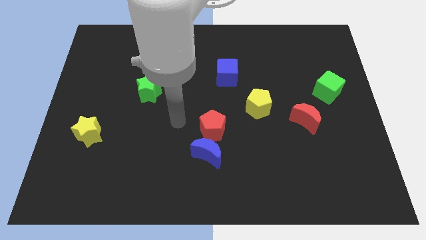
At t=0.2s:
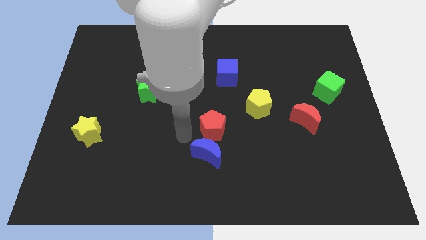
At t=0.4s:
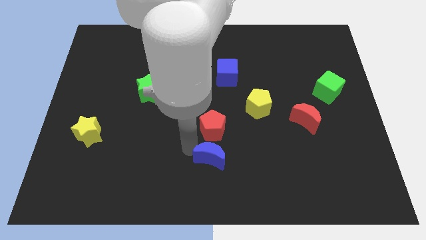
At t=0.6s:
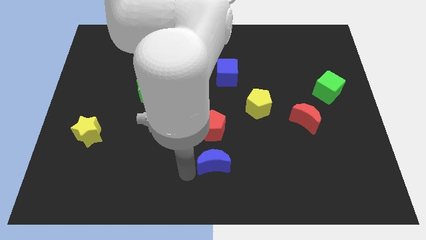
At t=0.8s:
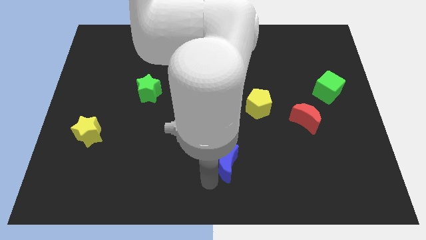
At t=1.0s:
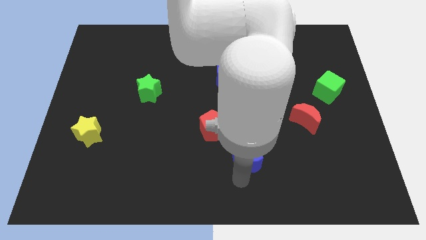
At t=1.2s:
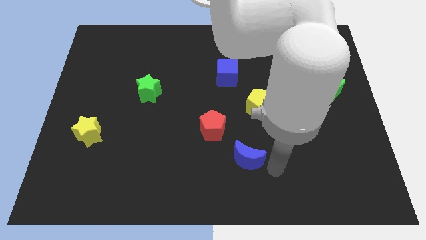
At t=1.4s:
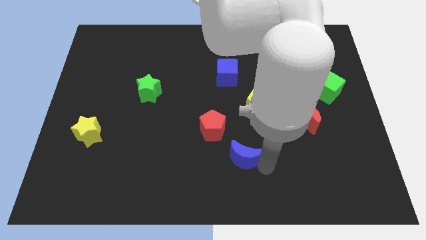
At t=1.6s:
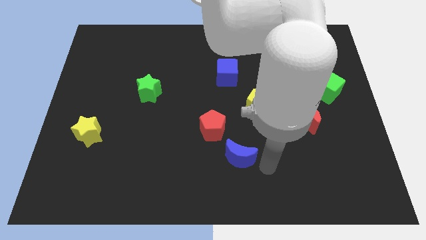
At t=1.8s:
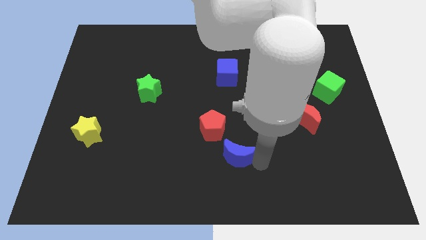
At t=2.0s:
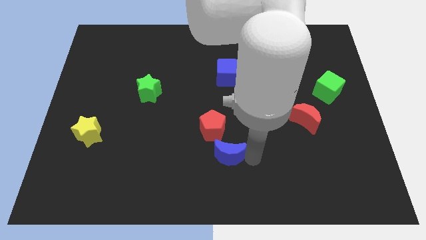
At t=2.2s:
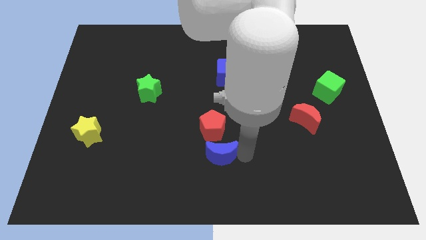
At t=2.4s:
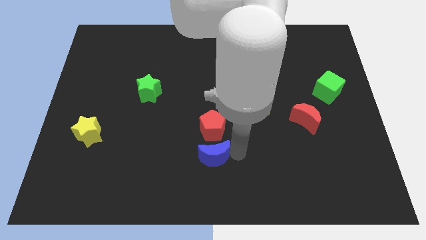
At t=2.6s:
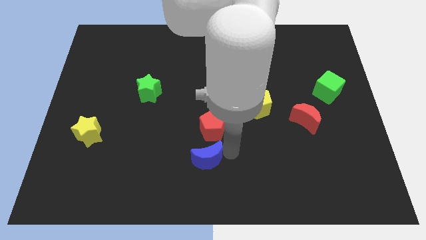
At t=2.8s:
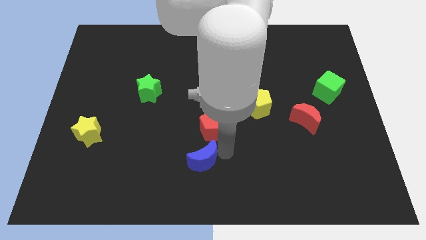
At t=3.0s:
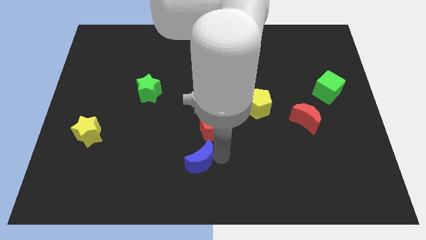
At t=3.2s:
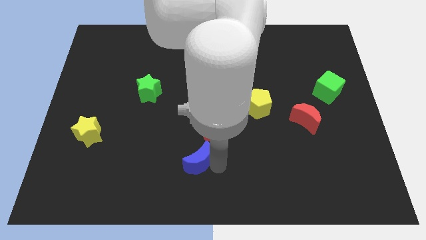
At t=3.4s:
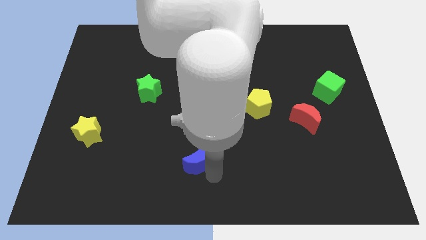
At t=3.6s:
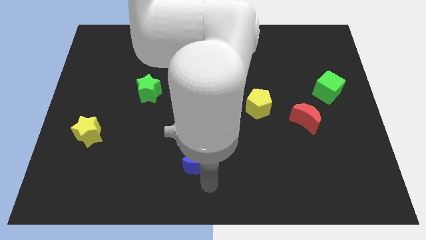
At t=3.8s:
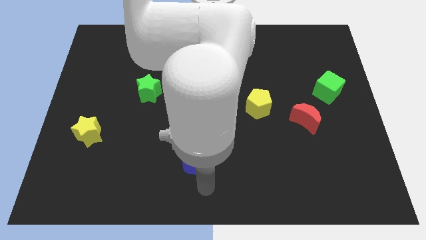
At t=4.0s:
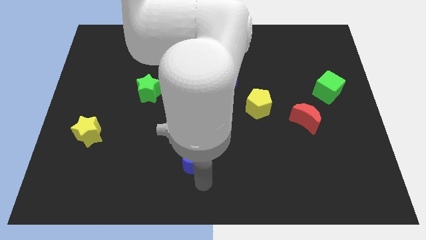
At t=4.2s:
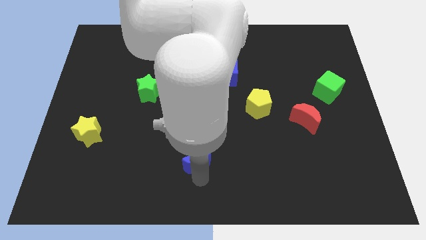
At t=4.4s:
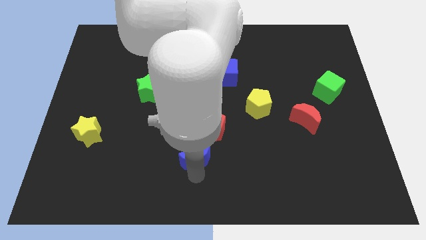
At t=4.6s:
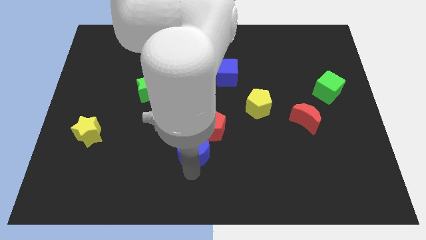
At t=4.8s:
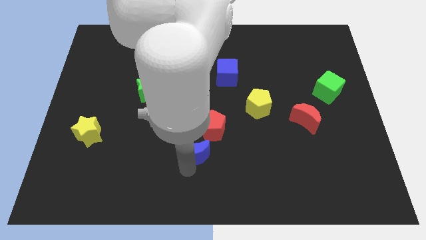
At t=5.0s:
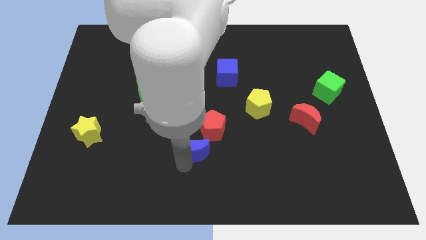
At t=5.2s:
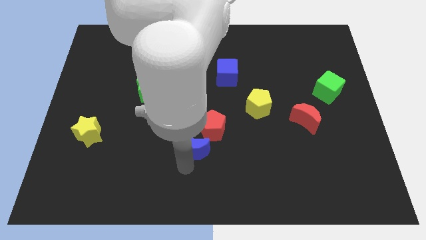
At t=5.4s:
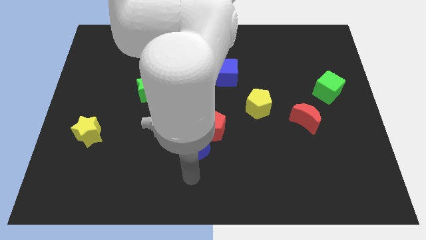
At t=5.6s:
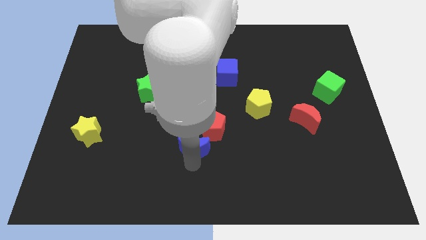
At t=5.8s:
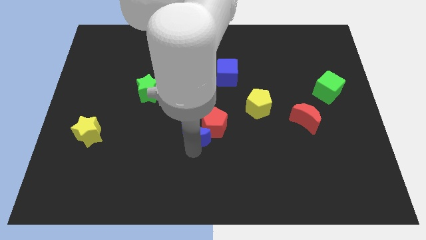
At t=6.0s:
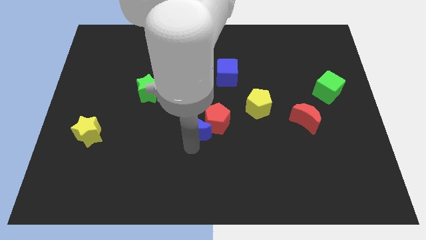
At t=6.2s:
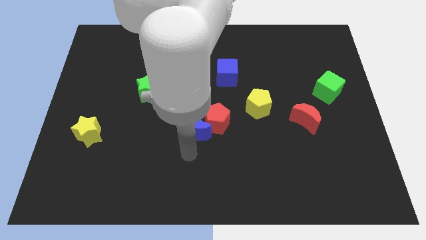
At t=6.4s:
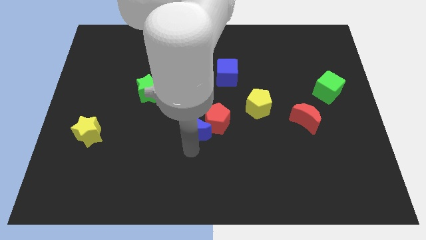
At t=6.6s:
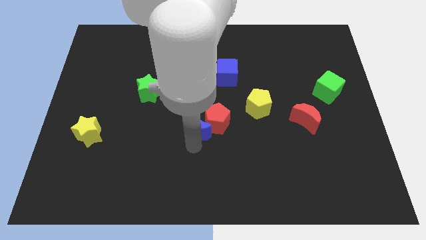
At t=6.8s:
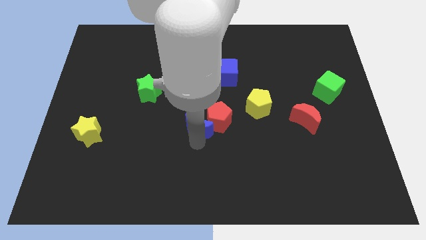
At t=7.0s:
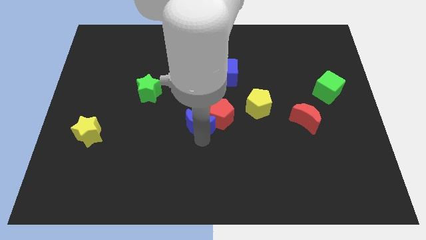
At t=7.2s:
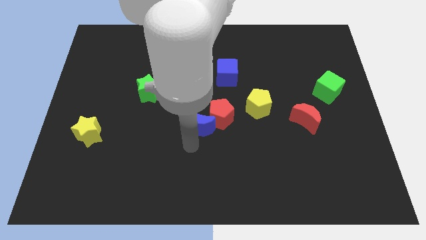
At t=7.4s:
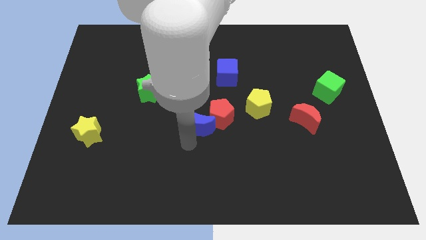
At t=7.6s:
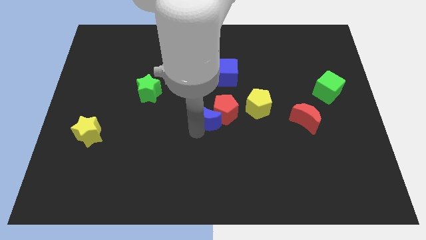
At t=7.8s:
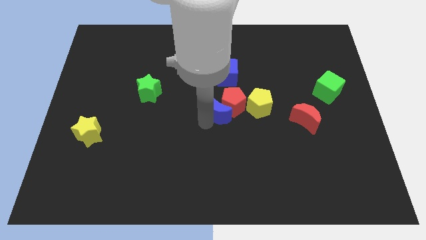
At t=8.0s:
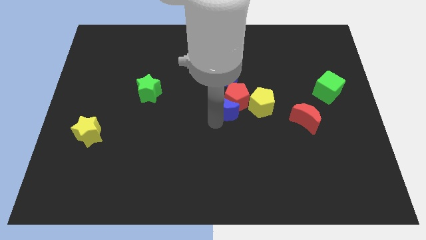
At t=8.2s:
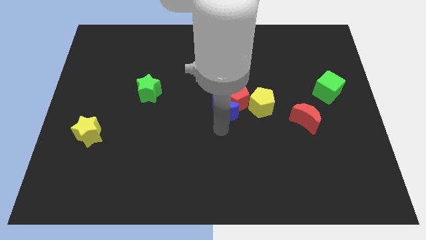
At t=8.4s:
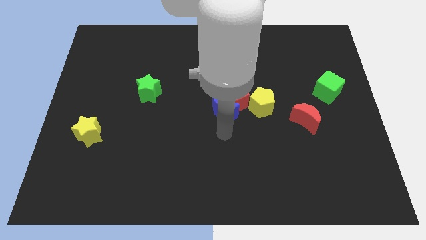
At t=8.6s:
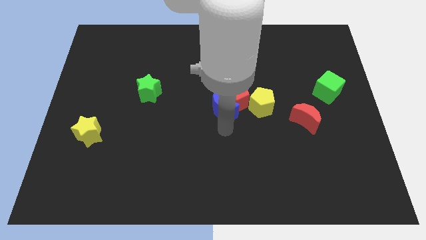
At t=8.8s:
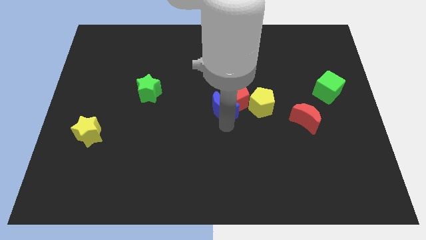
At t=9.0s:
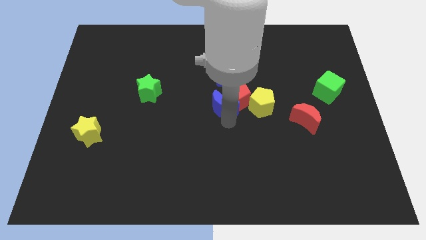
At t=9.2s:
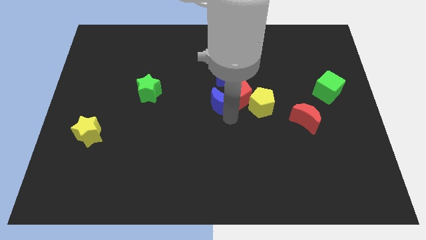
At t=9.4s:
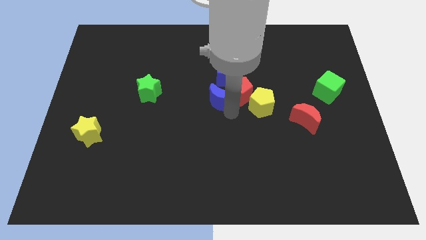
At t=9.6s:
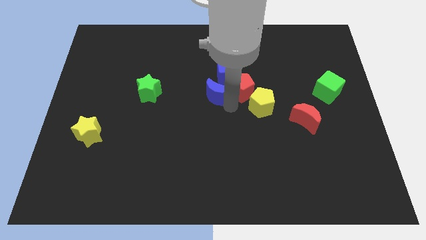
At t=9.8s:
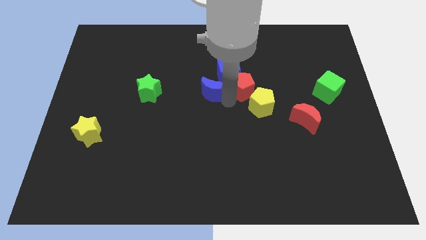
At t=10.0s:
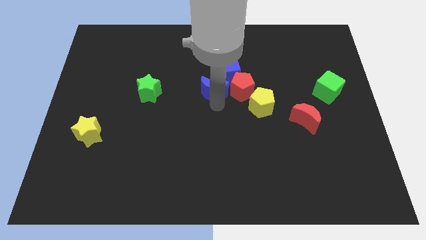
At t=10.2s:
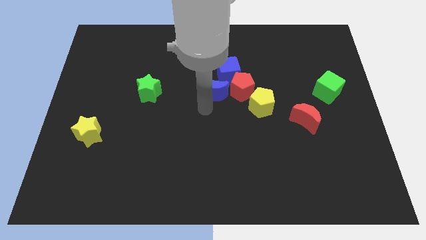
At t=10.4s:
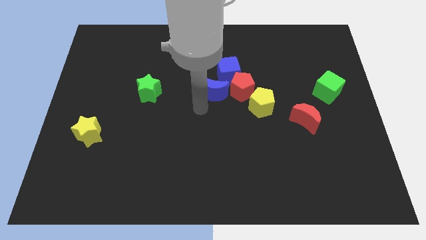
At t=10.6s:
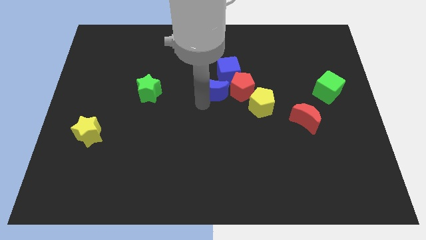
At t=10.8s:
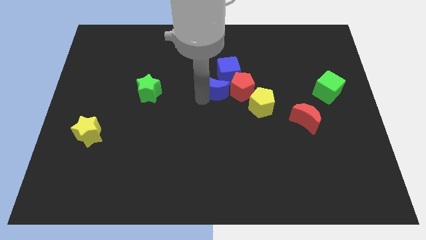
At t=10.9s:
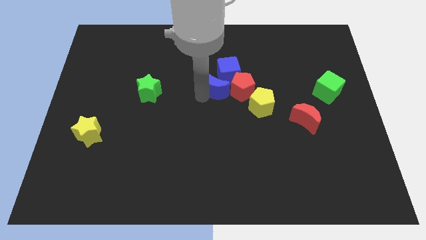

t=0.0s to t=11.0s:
push the blue moon next to the blue cube

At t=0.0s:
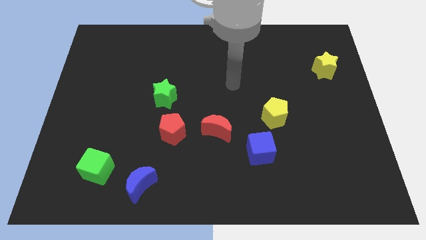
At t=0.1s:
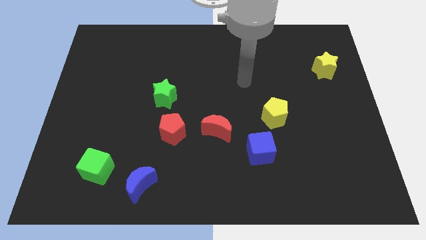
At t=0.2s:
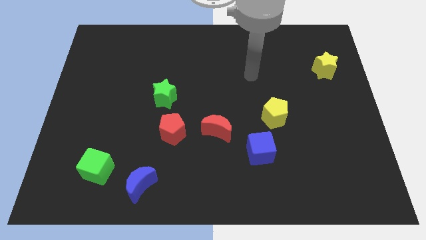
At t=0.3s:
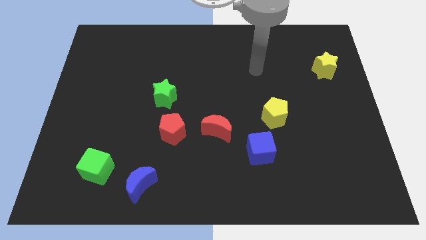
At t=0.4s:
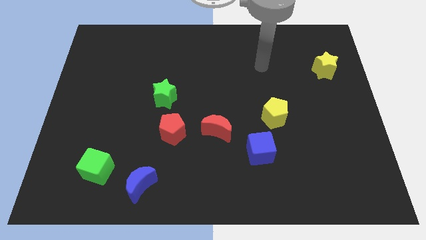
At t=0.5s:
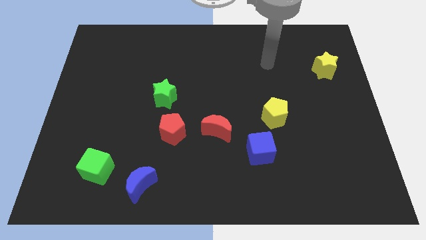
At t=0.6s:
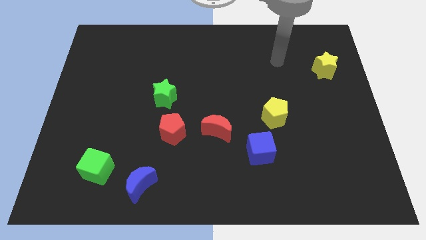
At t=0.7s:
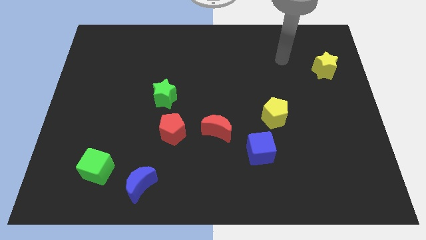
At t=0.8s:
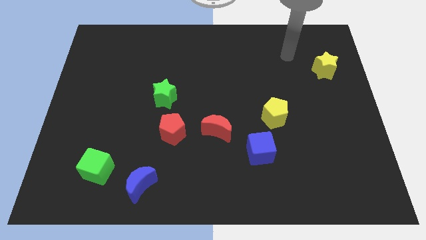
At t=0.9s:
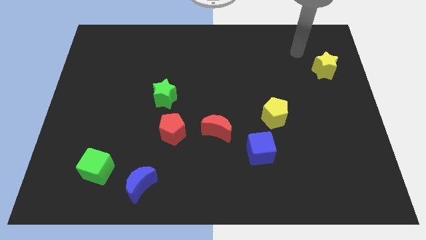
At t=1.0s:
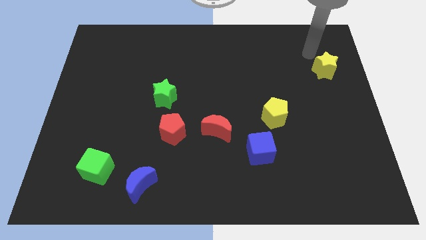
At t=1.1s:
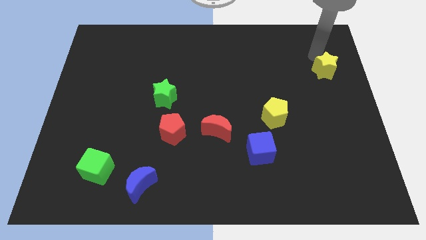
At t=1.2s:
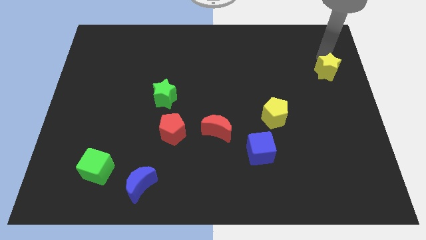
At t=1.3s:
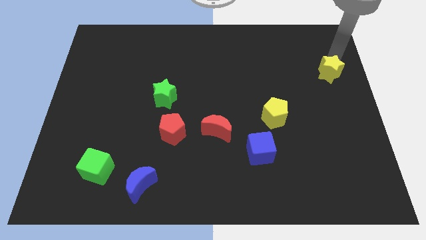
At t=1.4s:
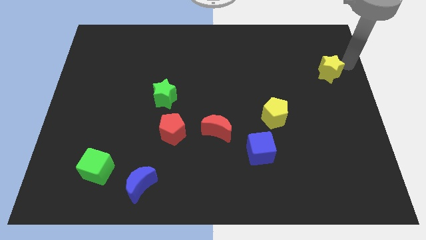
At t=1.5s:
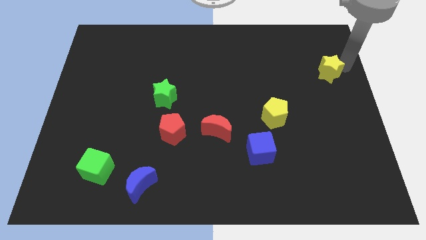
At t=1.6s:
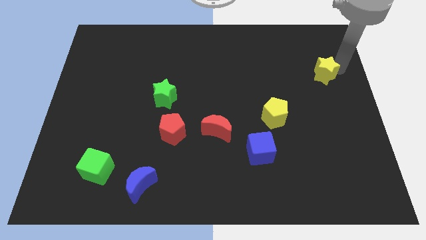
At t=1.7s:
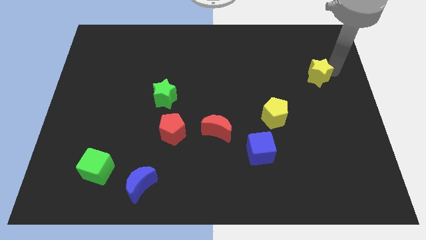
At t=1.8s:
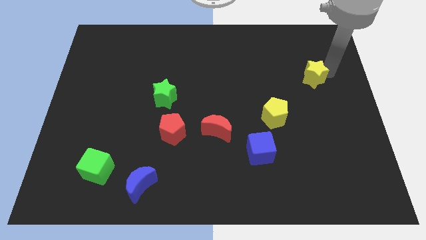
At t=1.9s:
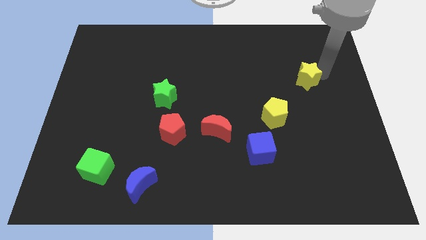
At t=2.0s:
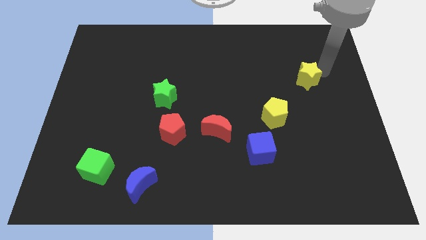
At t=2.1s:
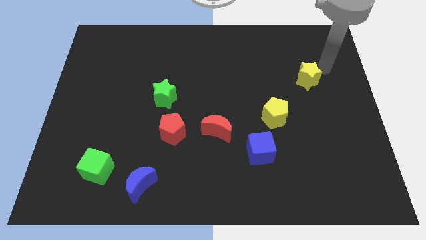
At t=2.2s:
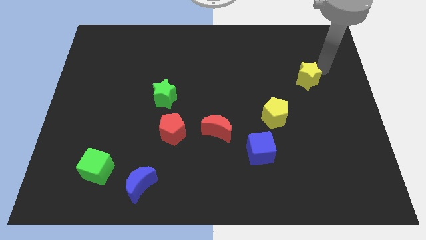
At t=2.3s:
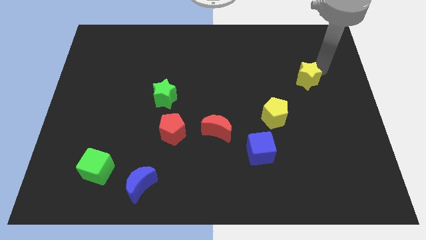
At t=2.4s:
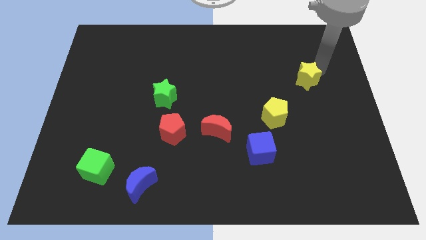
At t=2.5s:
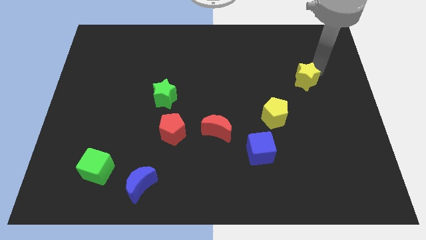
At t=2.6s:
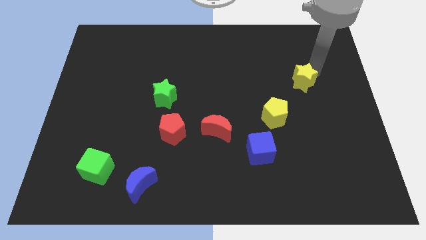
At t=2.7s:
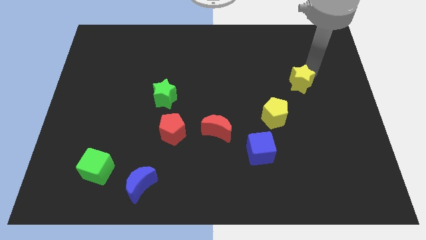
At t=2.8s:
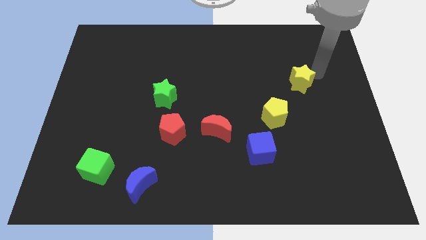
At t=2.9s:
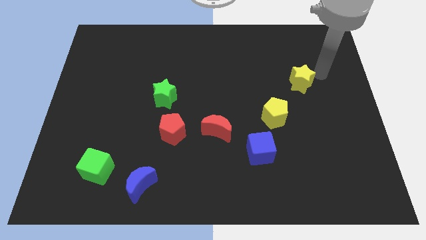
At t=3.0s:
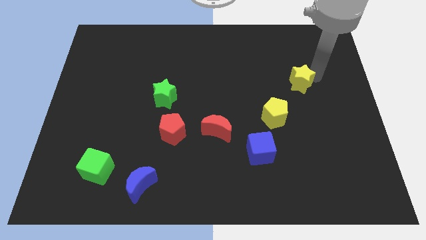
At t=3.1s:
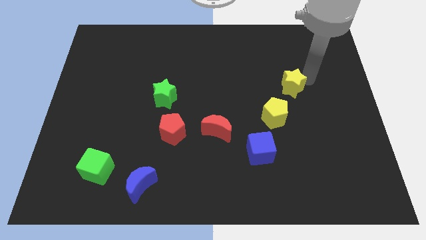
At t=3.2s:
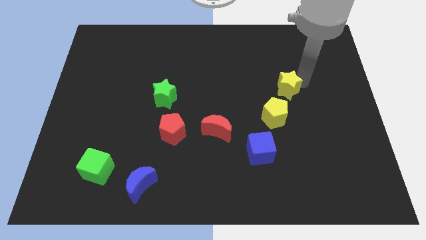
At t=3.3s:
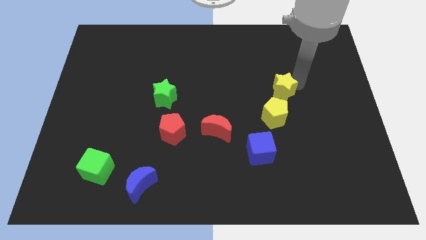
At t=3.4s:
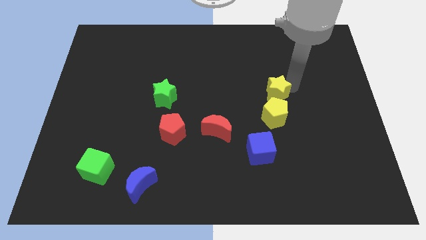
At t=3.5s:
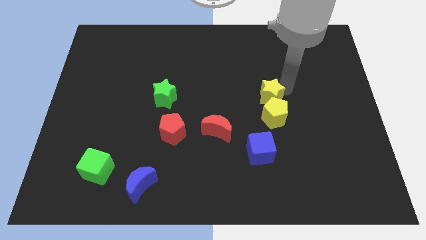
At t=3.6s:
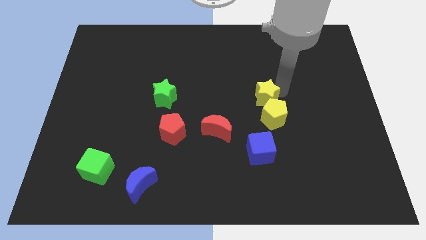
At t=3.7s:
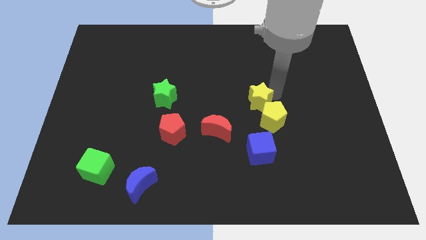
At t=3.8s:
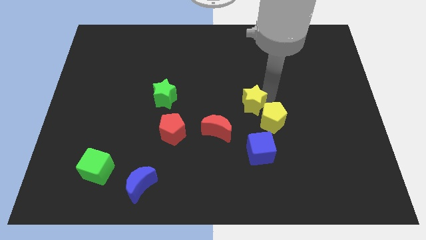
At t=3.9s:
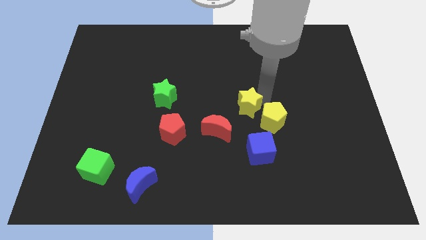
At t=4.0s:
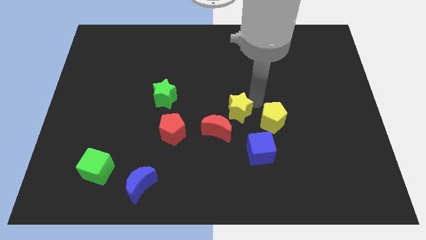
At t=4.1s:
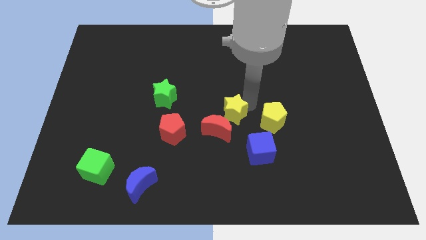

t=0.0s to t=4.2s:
move the yellow star to the red moon
